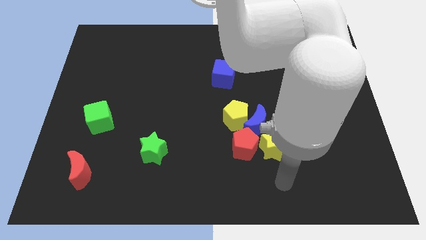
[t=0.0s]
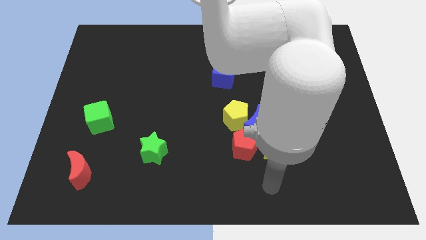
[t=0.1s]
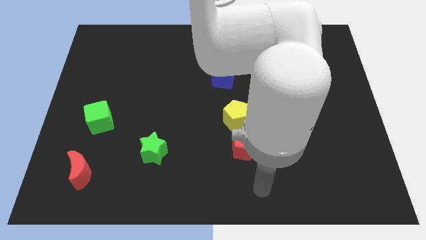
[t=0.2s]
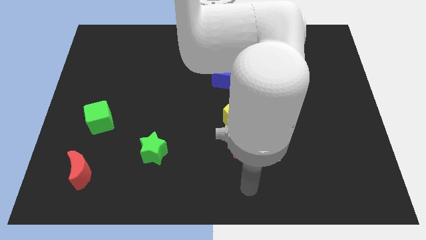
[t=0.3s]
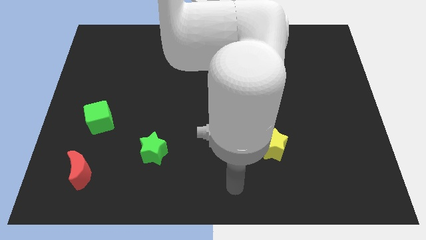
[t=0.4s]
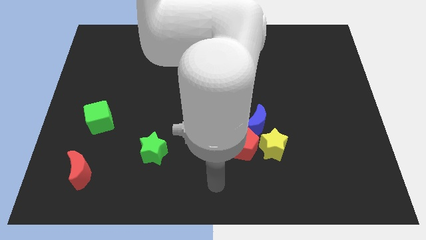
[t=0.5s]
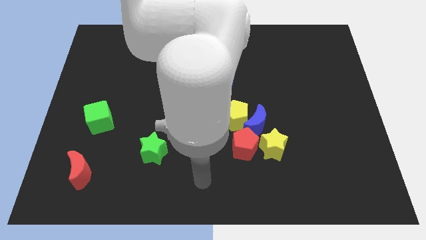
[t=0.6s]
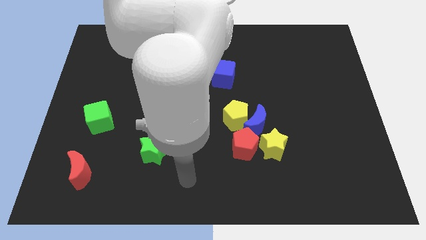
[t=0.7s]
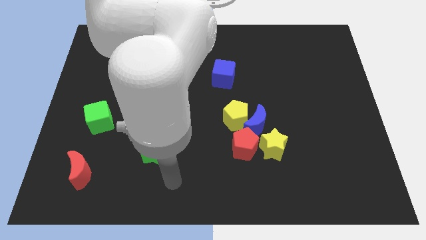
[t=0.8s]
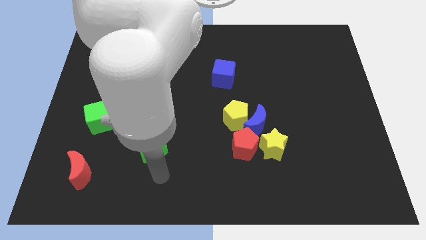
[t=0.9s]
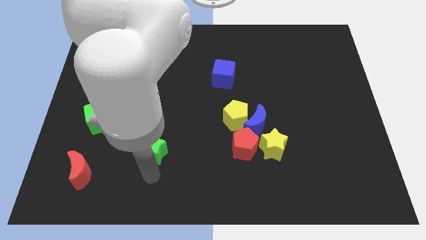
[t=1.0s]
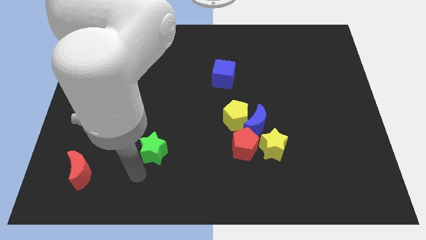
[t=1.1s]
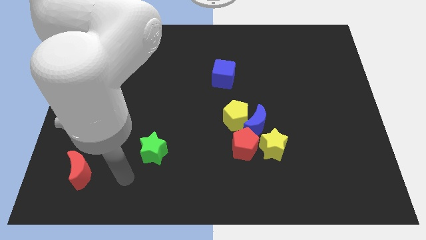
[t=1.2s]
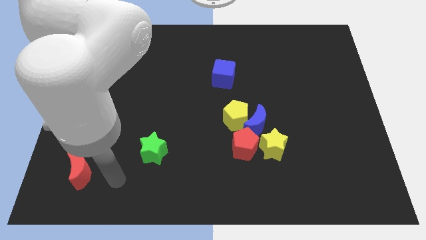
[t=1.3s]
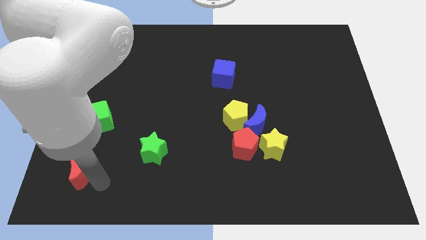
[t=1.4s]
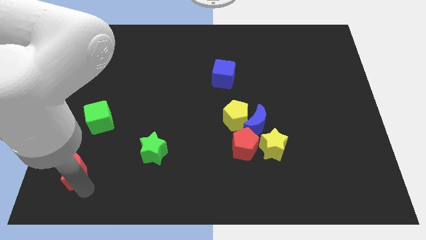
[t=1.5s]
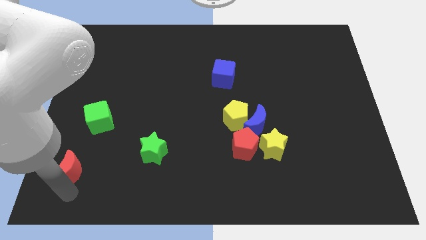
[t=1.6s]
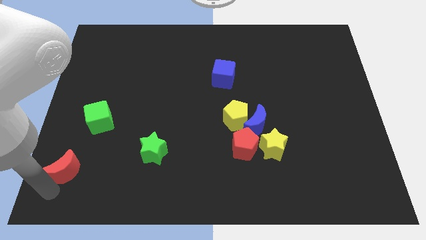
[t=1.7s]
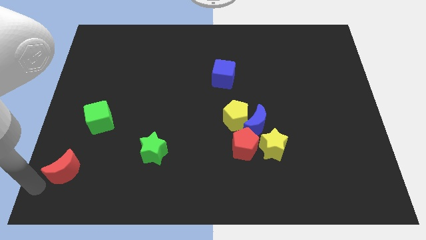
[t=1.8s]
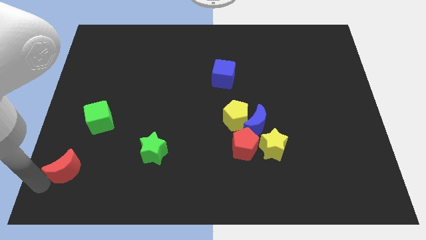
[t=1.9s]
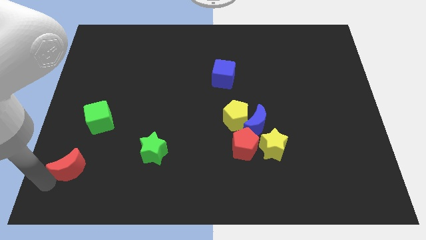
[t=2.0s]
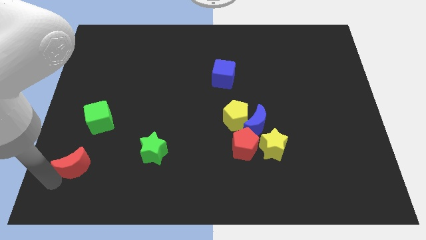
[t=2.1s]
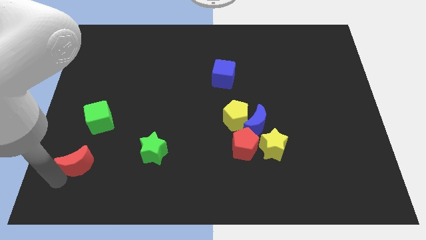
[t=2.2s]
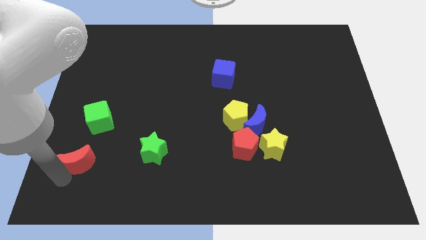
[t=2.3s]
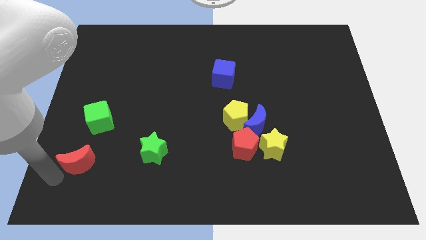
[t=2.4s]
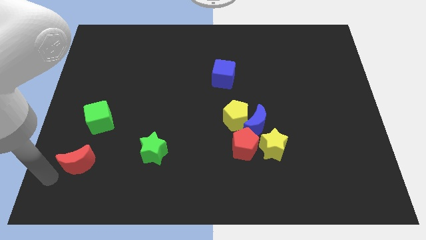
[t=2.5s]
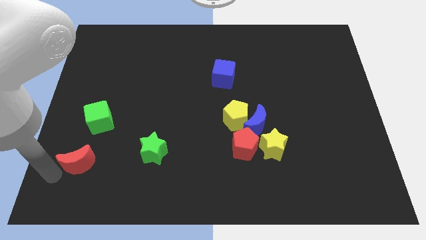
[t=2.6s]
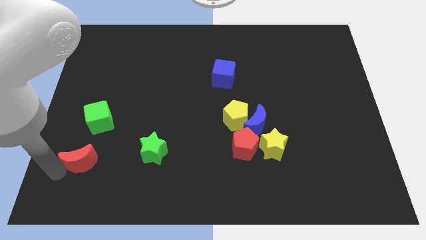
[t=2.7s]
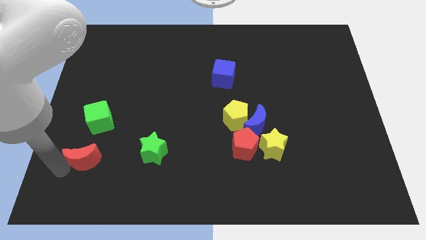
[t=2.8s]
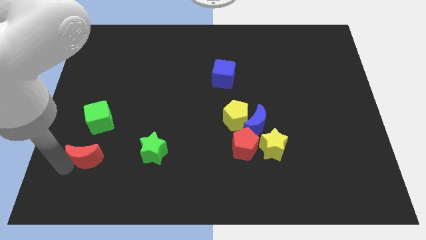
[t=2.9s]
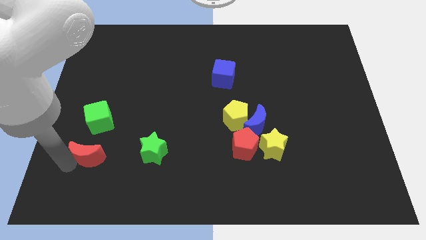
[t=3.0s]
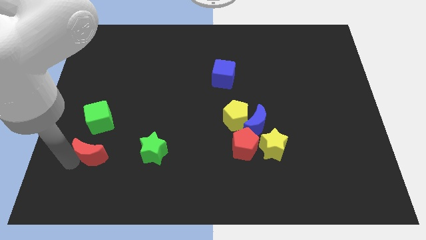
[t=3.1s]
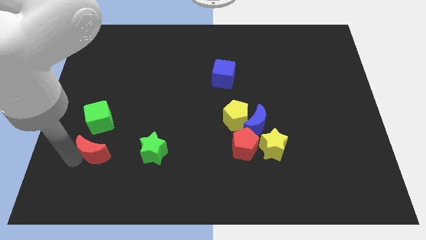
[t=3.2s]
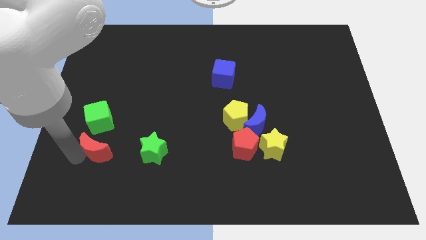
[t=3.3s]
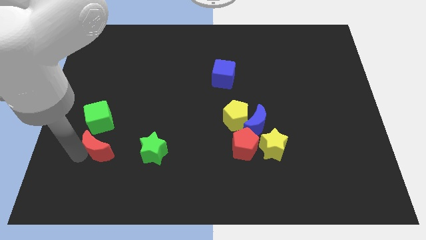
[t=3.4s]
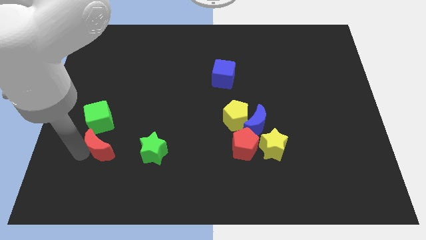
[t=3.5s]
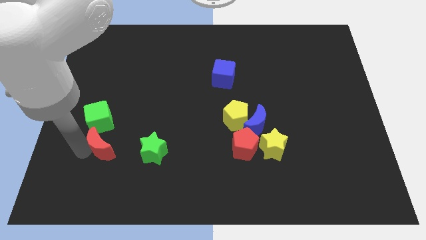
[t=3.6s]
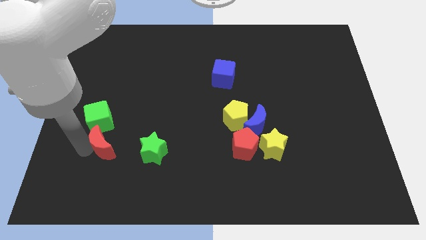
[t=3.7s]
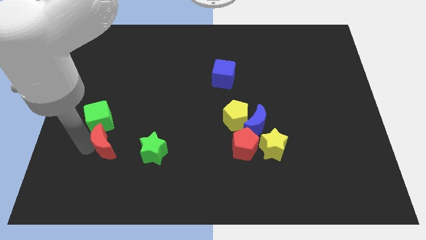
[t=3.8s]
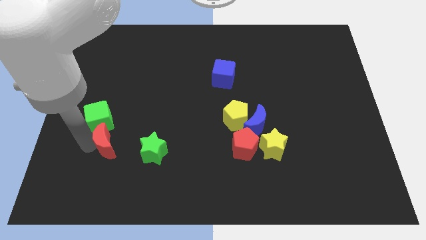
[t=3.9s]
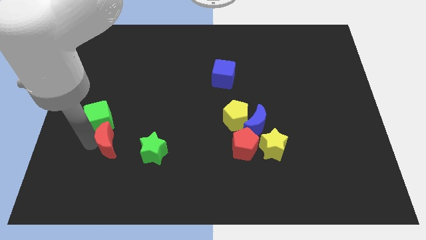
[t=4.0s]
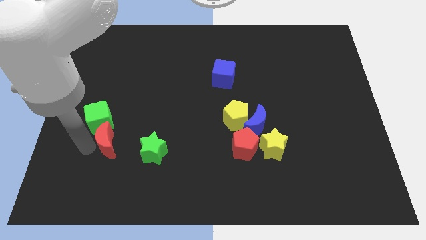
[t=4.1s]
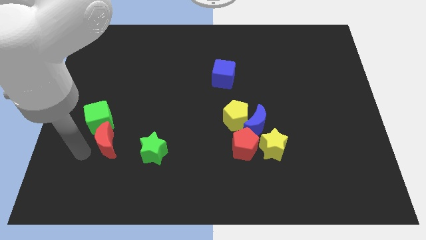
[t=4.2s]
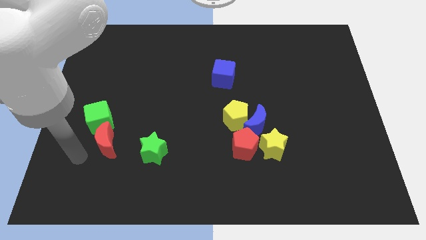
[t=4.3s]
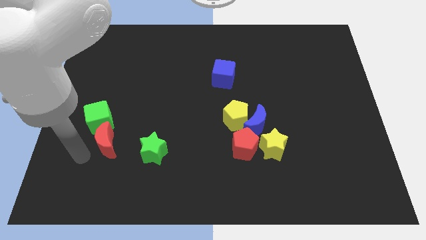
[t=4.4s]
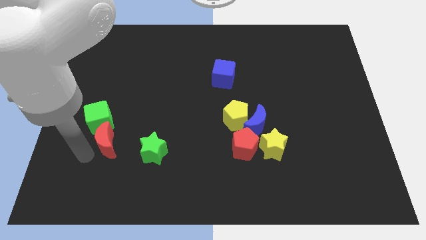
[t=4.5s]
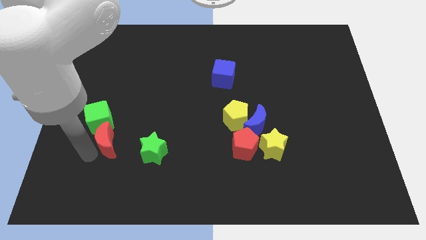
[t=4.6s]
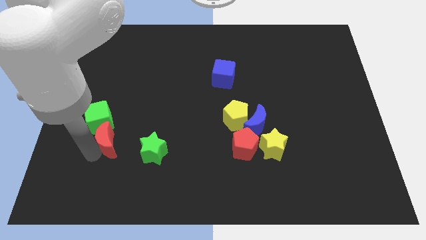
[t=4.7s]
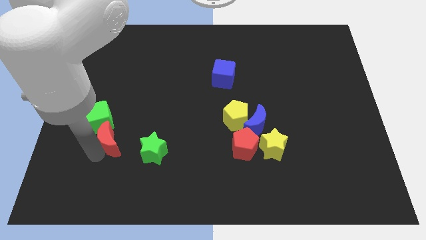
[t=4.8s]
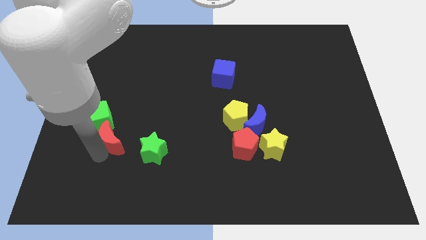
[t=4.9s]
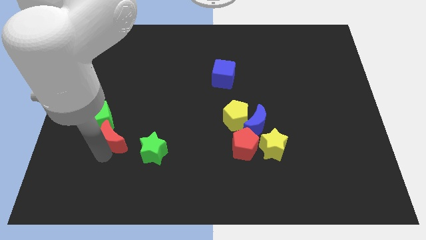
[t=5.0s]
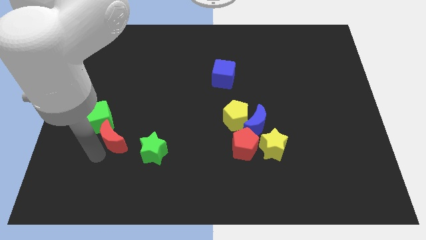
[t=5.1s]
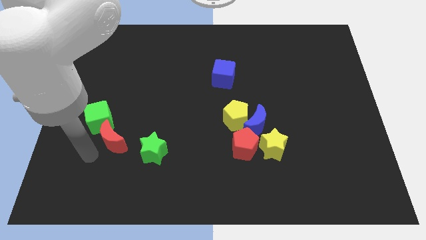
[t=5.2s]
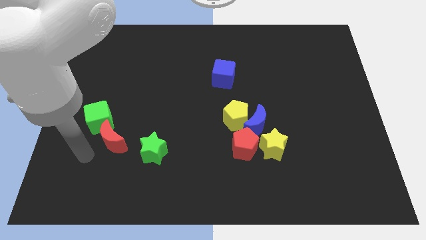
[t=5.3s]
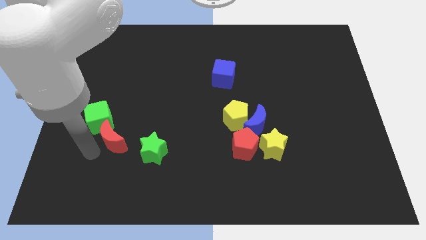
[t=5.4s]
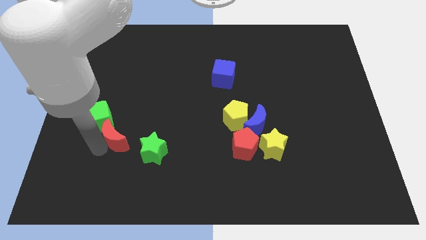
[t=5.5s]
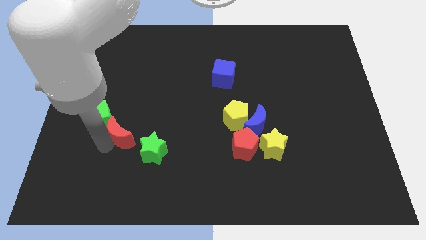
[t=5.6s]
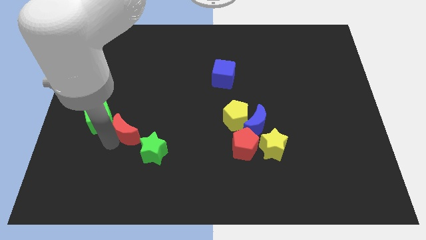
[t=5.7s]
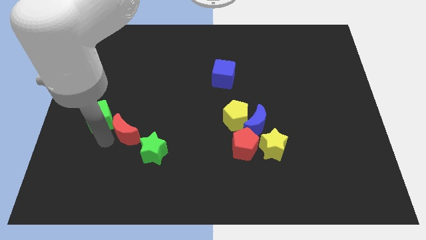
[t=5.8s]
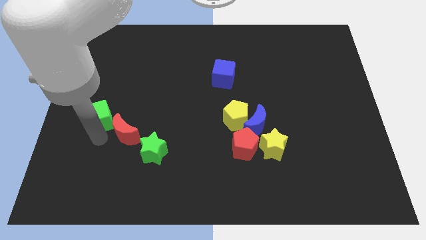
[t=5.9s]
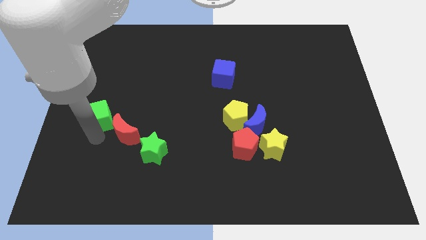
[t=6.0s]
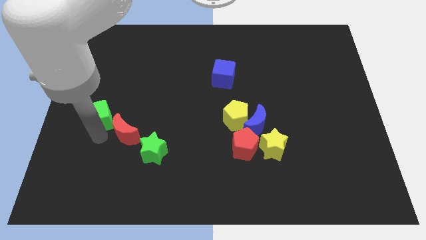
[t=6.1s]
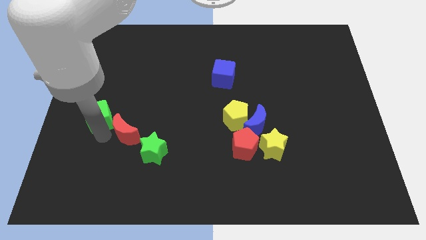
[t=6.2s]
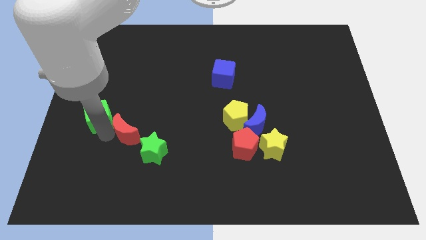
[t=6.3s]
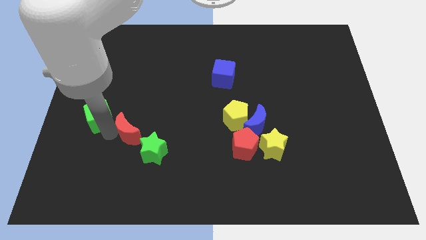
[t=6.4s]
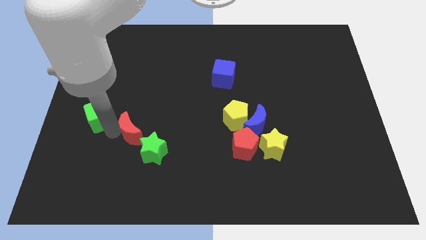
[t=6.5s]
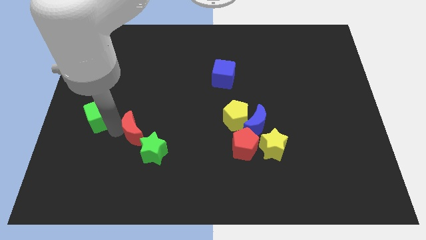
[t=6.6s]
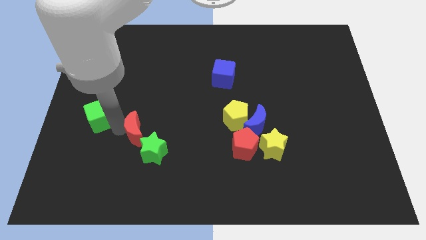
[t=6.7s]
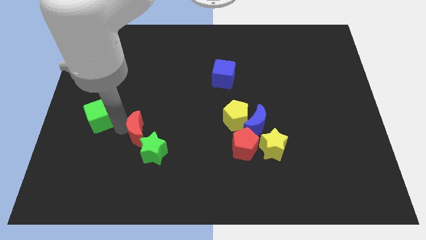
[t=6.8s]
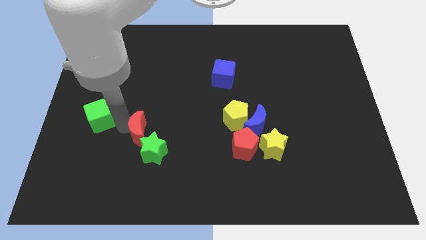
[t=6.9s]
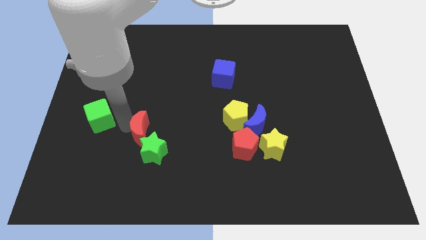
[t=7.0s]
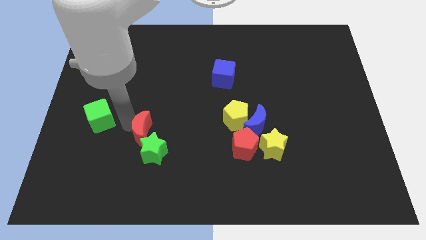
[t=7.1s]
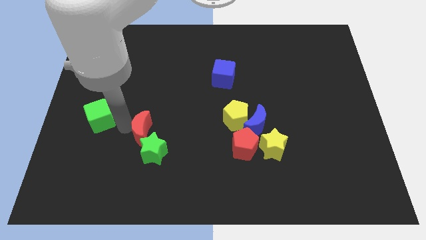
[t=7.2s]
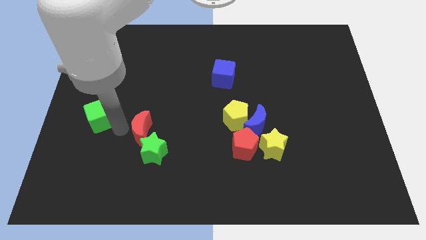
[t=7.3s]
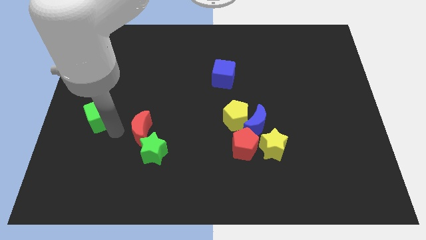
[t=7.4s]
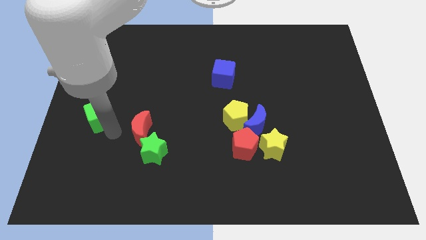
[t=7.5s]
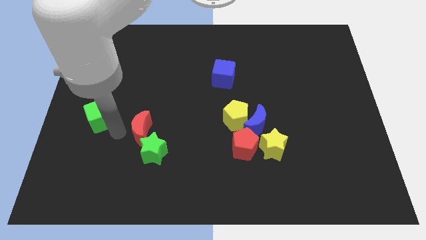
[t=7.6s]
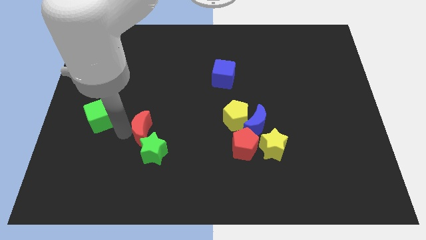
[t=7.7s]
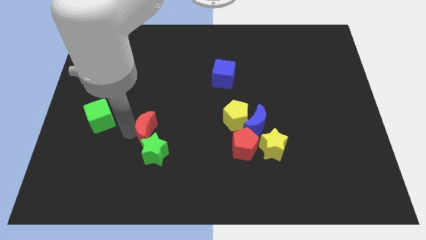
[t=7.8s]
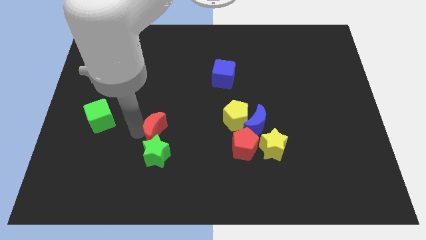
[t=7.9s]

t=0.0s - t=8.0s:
push the red moon to the top right of the green star
